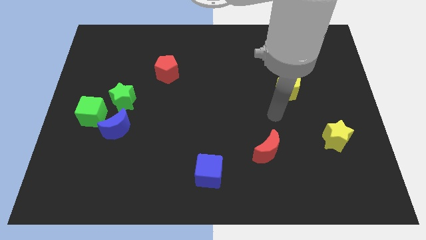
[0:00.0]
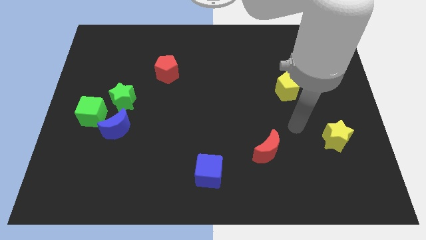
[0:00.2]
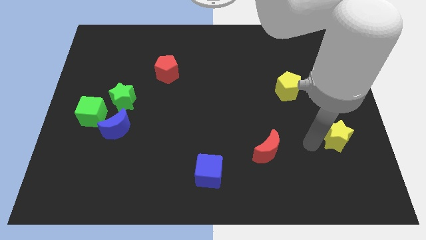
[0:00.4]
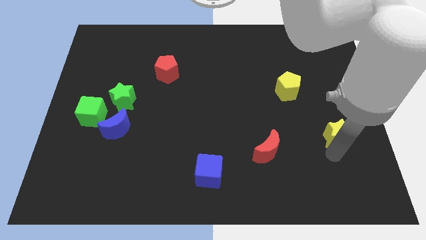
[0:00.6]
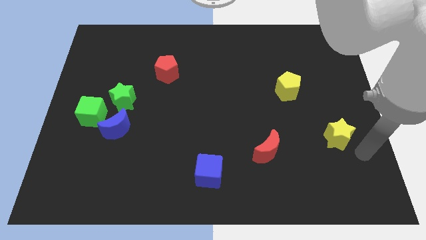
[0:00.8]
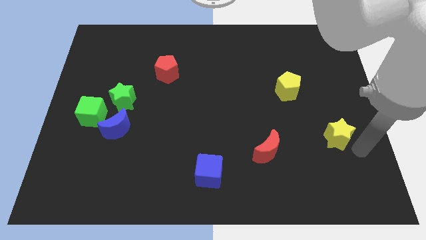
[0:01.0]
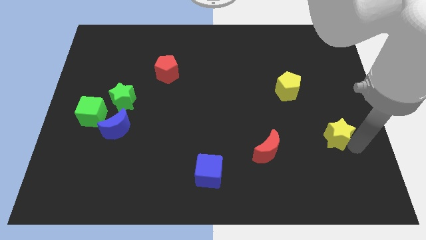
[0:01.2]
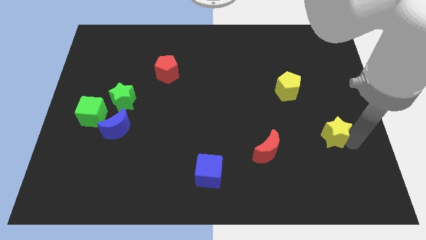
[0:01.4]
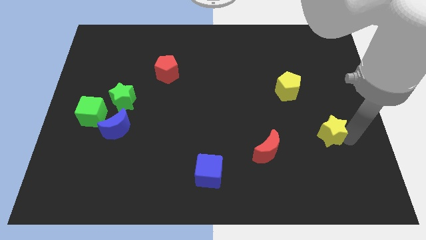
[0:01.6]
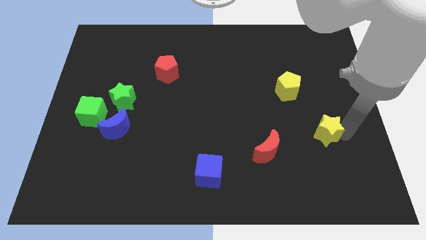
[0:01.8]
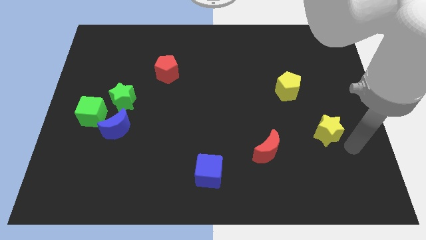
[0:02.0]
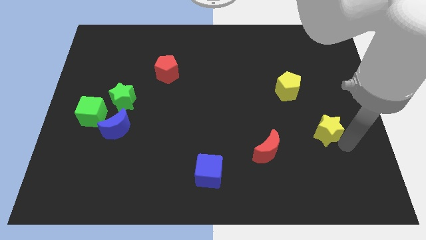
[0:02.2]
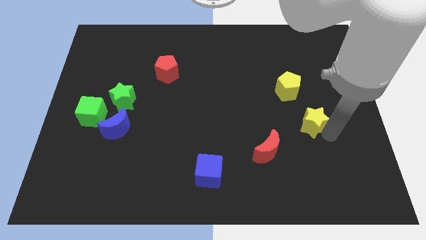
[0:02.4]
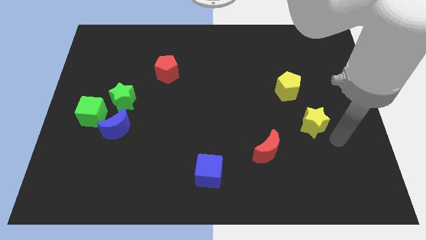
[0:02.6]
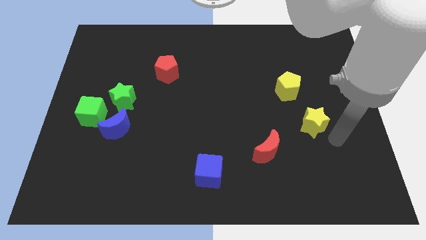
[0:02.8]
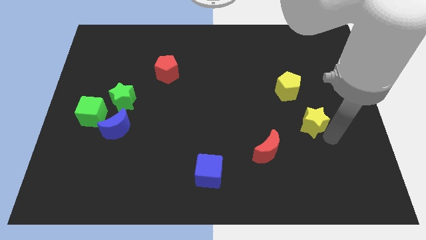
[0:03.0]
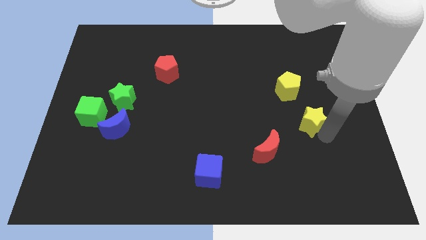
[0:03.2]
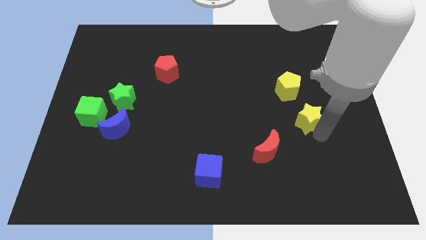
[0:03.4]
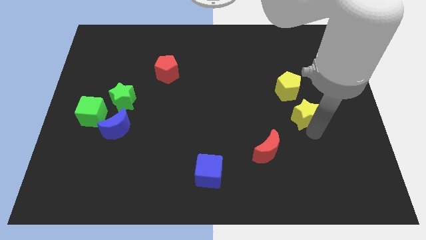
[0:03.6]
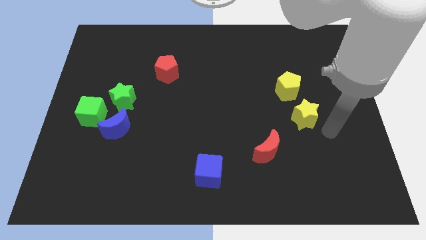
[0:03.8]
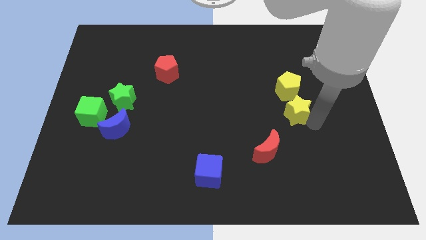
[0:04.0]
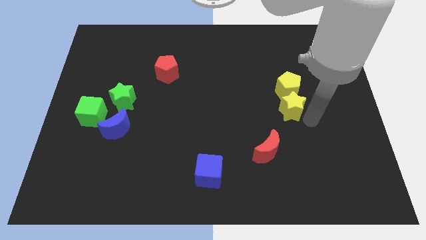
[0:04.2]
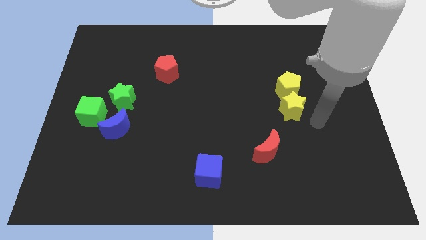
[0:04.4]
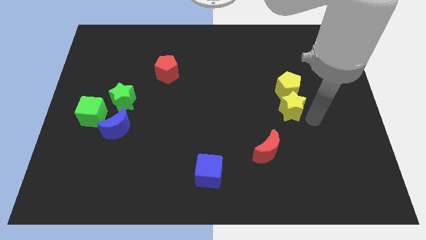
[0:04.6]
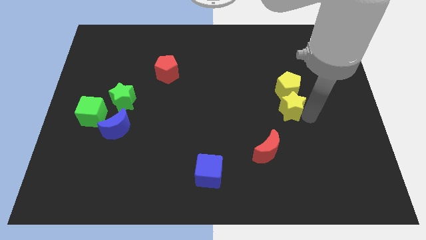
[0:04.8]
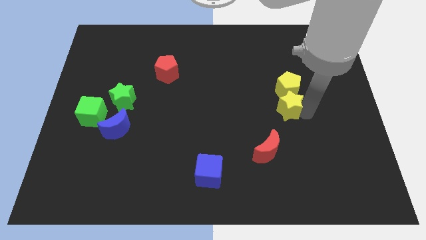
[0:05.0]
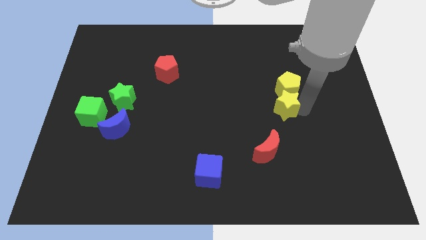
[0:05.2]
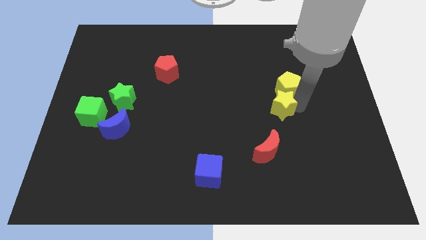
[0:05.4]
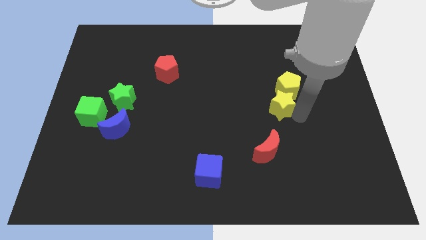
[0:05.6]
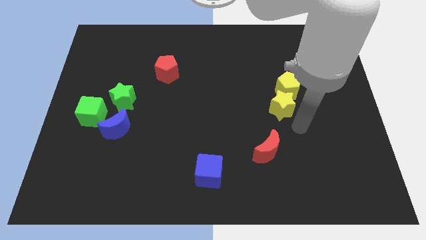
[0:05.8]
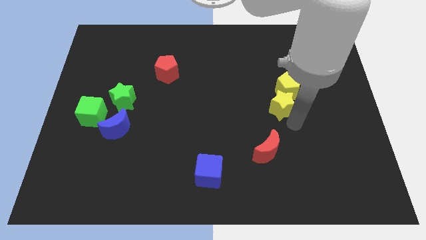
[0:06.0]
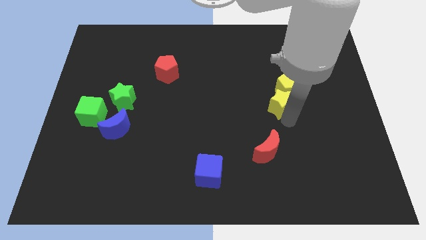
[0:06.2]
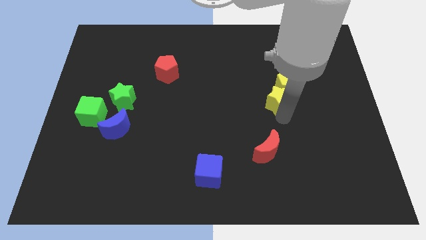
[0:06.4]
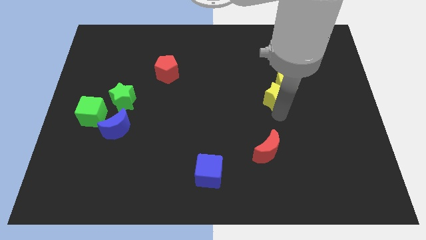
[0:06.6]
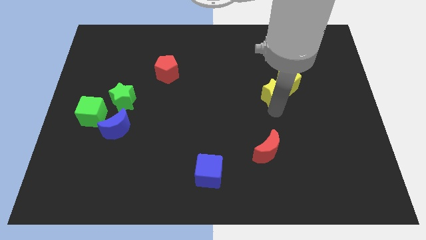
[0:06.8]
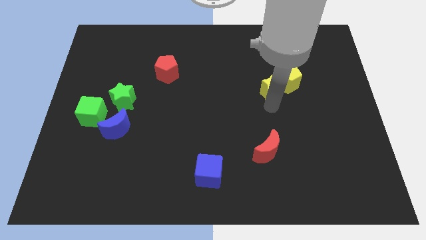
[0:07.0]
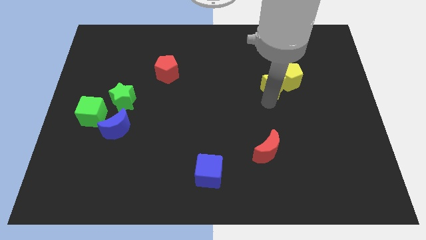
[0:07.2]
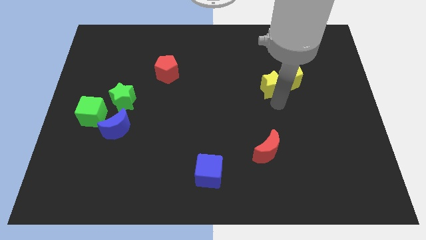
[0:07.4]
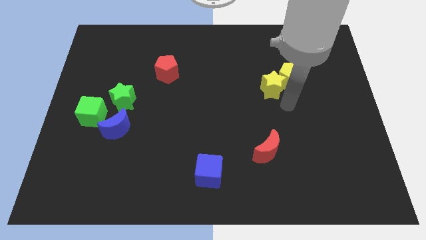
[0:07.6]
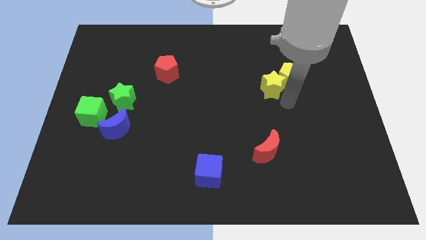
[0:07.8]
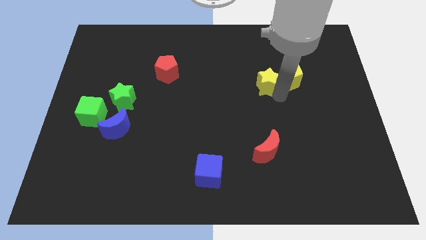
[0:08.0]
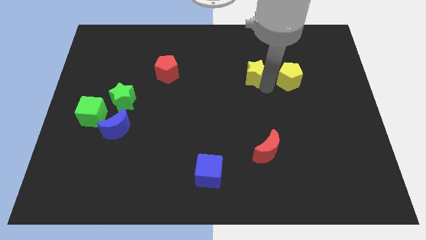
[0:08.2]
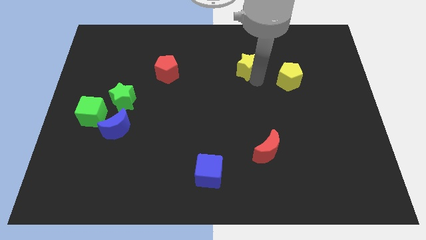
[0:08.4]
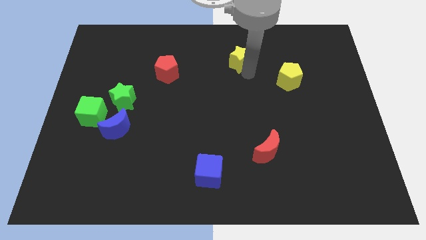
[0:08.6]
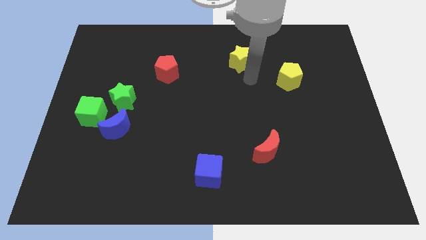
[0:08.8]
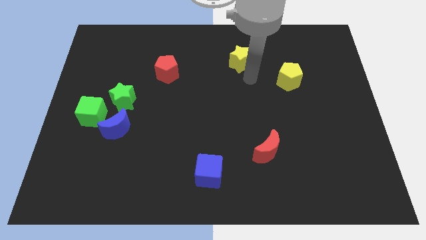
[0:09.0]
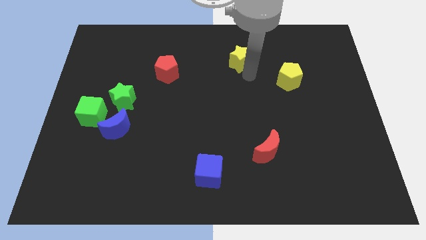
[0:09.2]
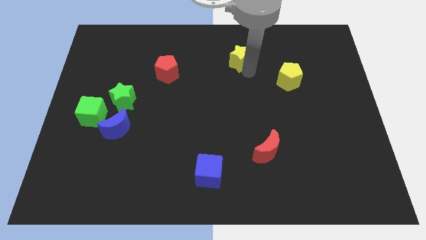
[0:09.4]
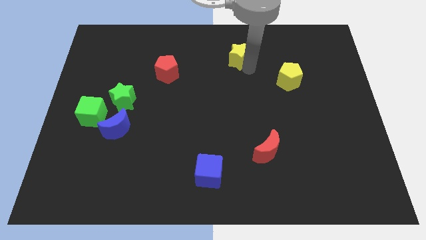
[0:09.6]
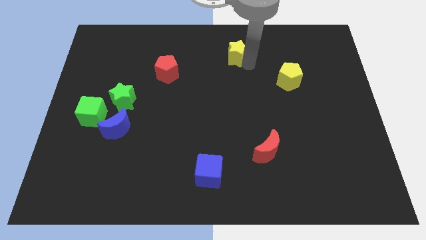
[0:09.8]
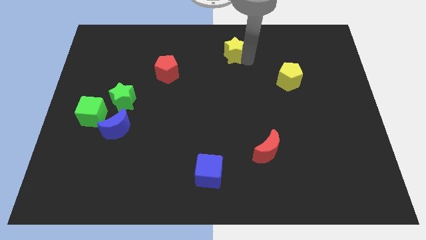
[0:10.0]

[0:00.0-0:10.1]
slide the yellow star to the top side

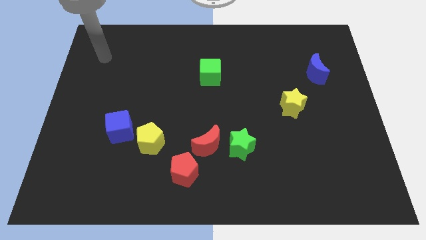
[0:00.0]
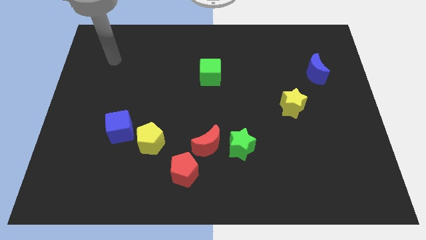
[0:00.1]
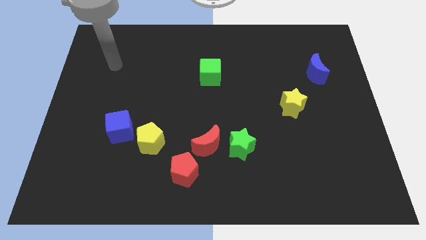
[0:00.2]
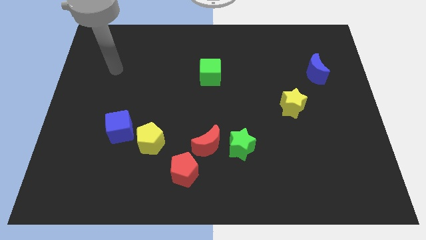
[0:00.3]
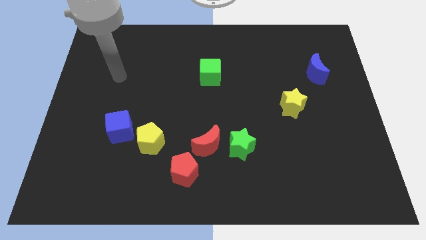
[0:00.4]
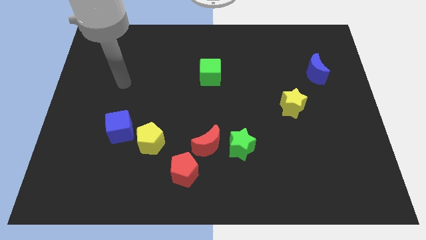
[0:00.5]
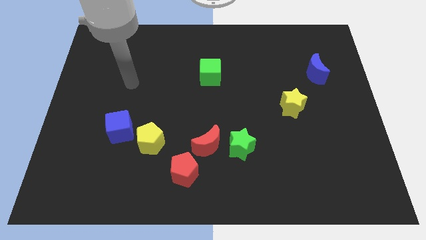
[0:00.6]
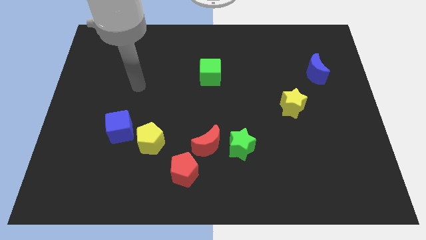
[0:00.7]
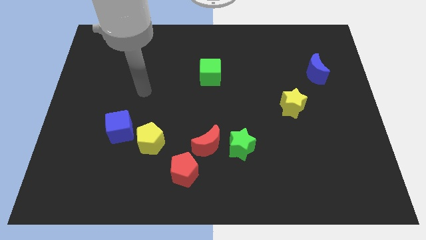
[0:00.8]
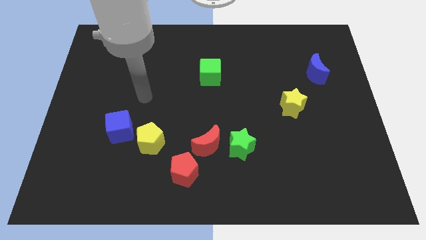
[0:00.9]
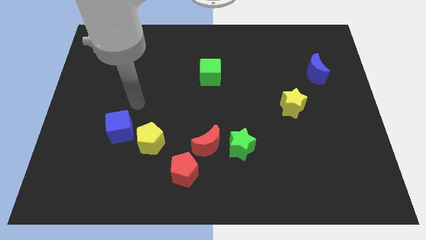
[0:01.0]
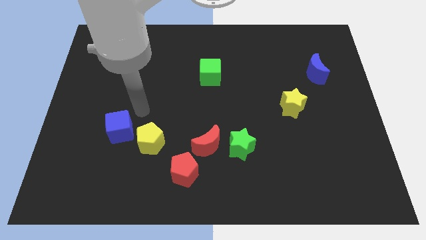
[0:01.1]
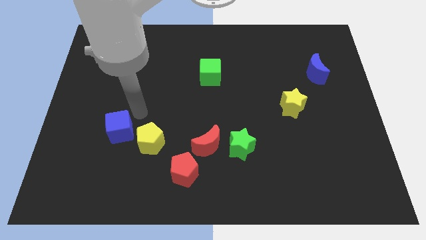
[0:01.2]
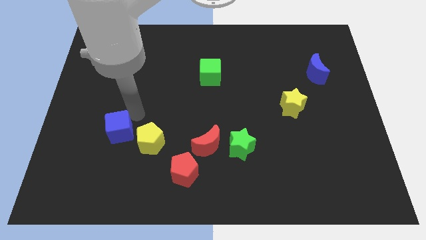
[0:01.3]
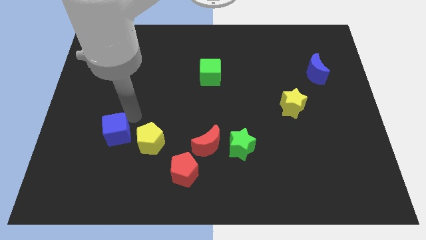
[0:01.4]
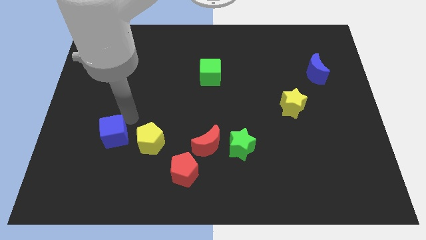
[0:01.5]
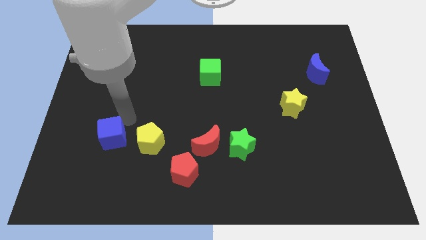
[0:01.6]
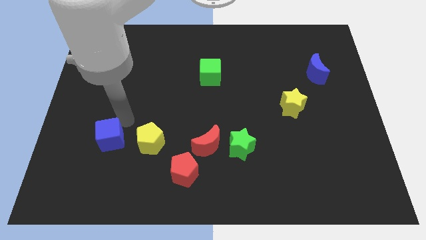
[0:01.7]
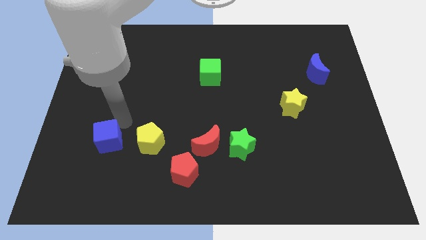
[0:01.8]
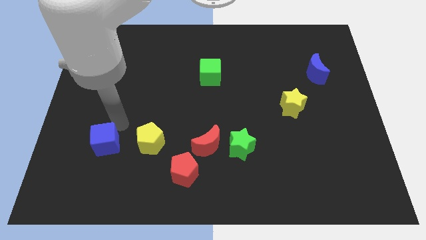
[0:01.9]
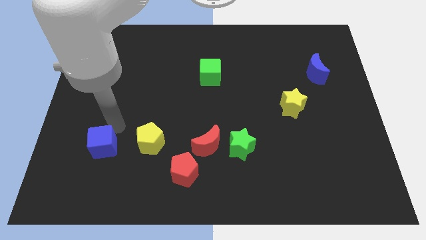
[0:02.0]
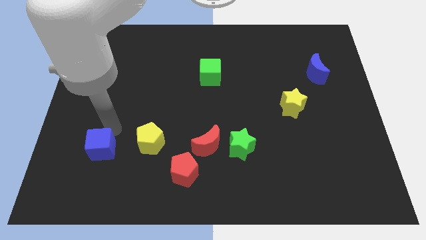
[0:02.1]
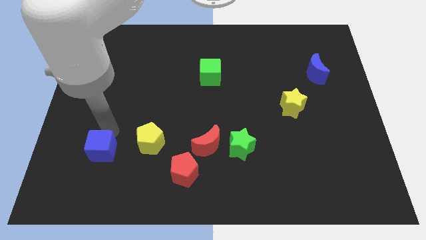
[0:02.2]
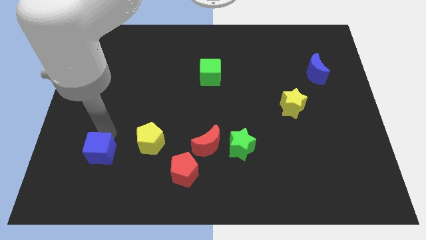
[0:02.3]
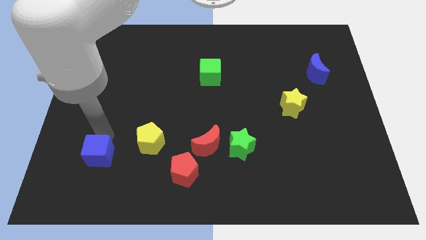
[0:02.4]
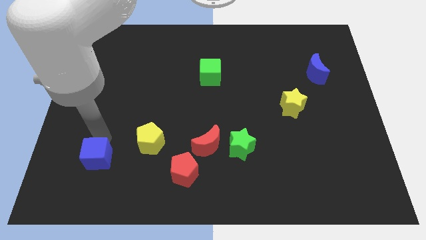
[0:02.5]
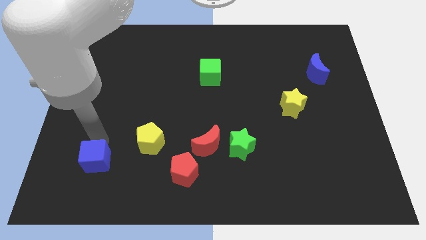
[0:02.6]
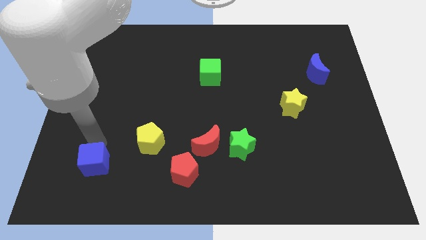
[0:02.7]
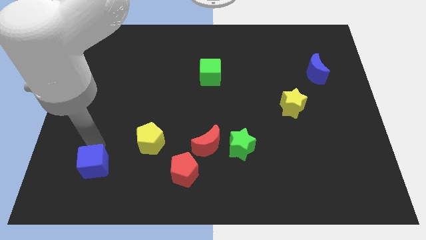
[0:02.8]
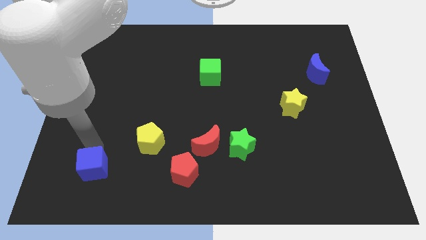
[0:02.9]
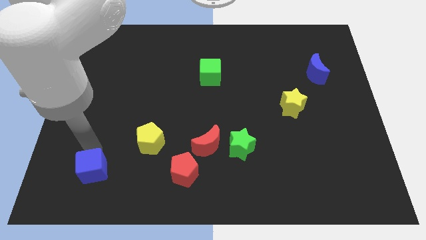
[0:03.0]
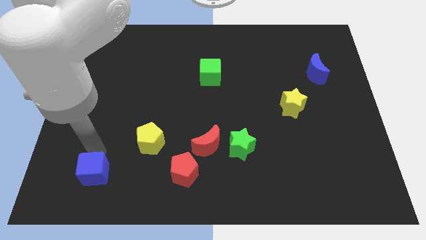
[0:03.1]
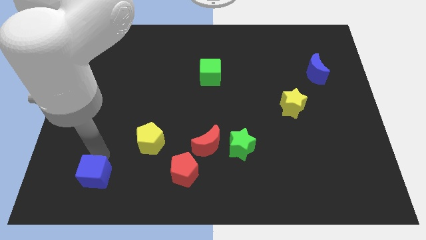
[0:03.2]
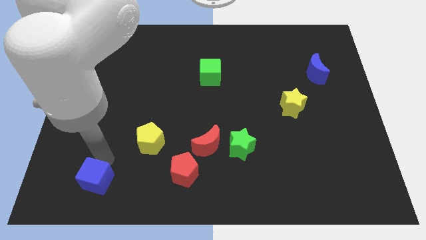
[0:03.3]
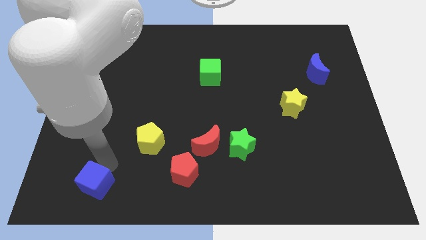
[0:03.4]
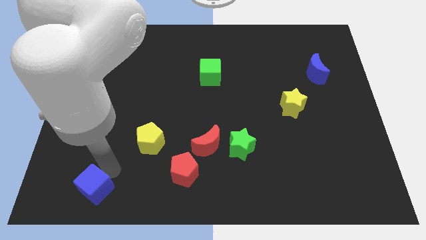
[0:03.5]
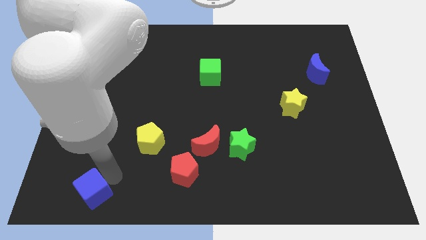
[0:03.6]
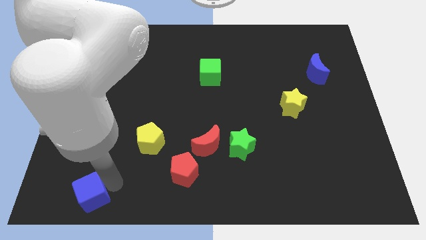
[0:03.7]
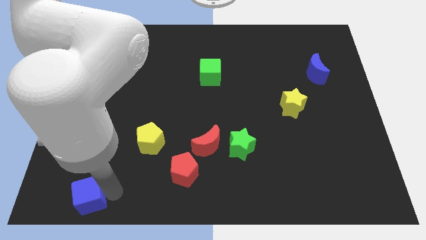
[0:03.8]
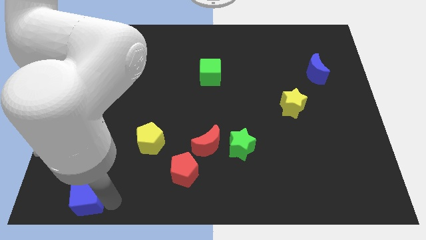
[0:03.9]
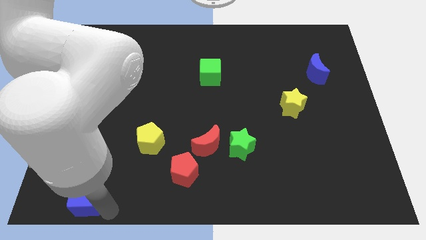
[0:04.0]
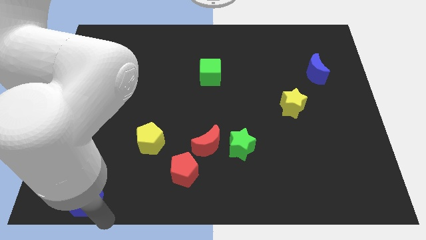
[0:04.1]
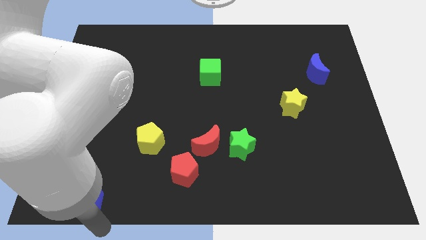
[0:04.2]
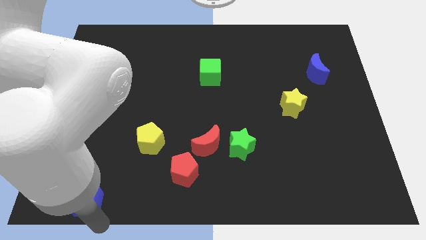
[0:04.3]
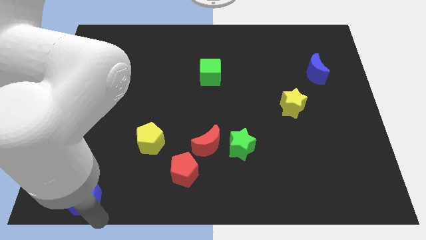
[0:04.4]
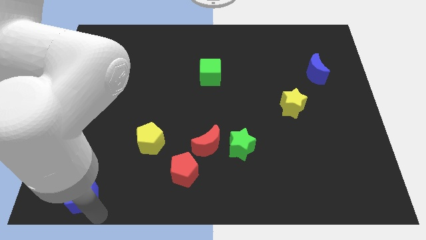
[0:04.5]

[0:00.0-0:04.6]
push the blue cube to the bottom left corner
